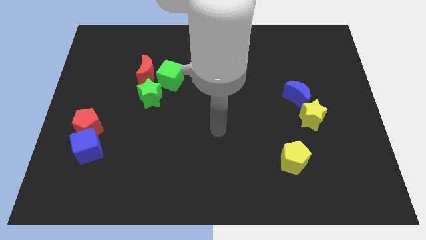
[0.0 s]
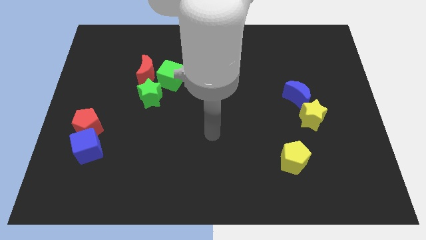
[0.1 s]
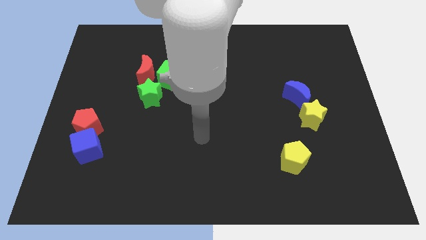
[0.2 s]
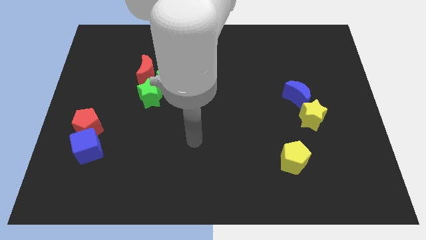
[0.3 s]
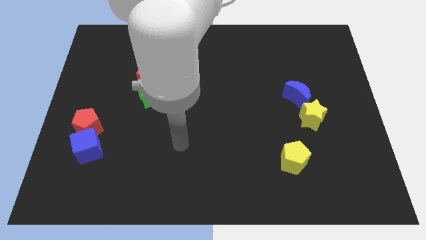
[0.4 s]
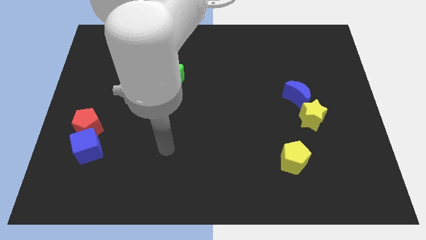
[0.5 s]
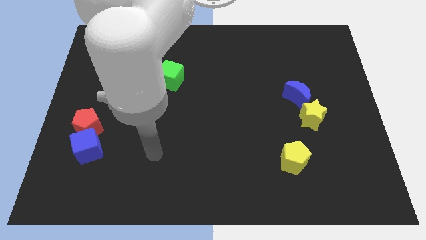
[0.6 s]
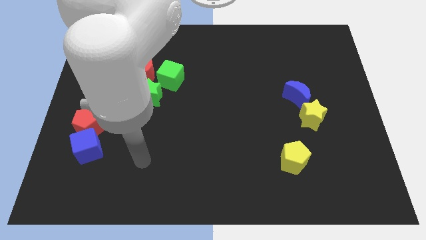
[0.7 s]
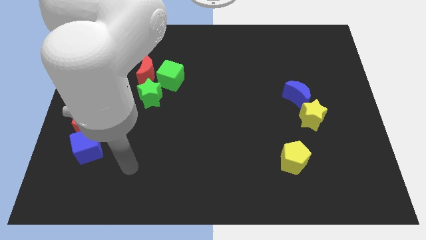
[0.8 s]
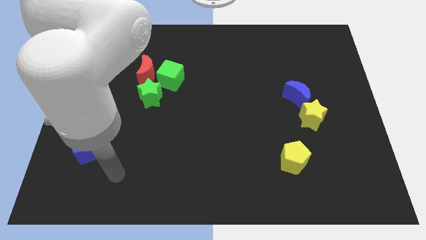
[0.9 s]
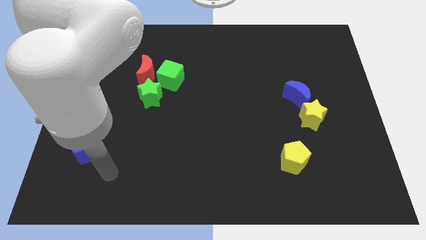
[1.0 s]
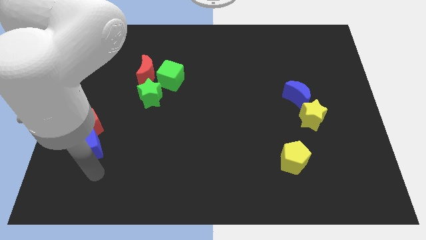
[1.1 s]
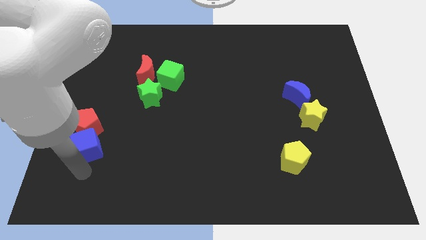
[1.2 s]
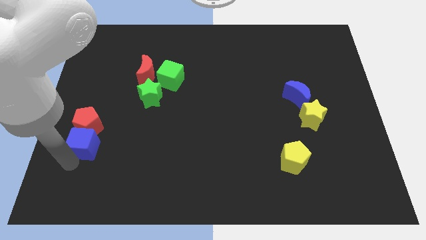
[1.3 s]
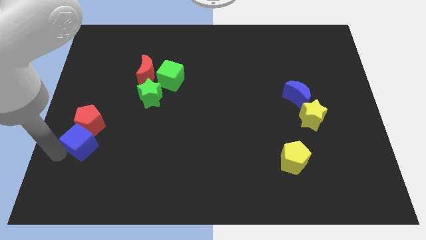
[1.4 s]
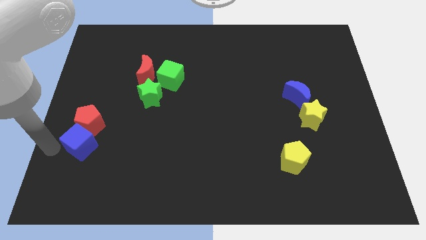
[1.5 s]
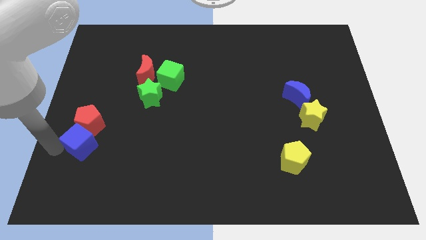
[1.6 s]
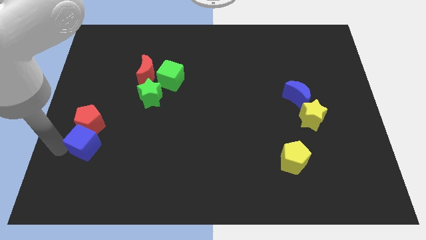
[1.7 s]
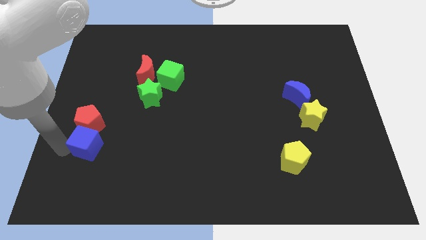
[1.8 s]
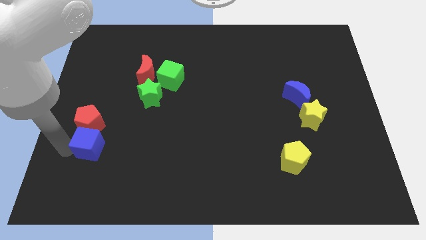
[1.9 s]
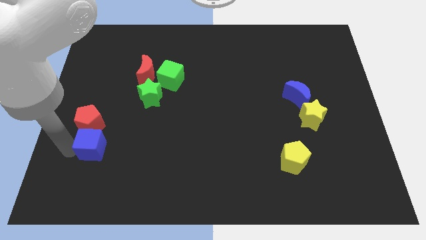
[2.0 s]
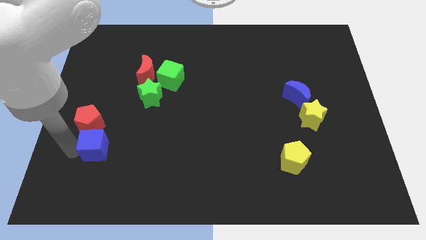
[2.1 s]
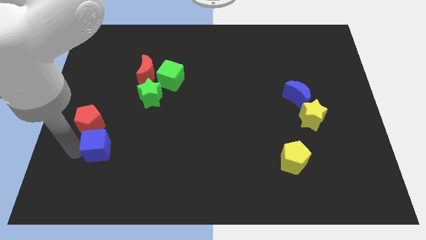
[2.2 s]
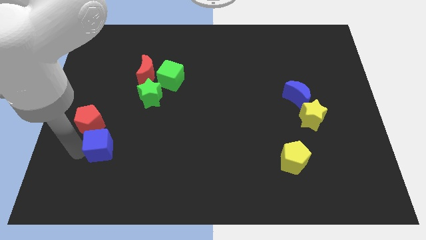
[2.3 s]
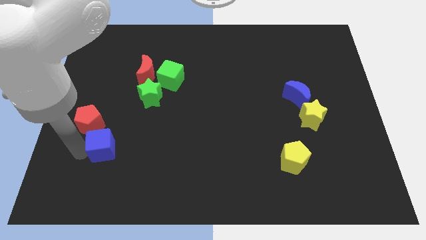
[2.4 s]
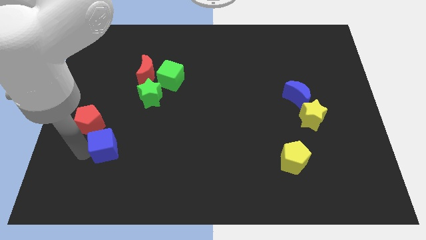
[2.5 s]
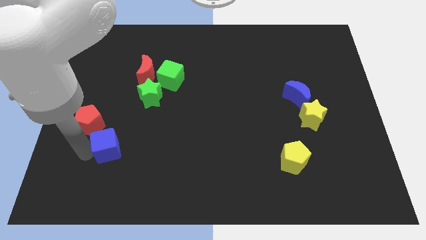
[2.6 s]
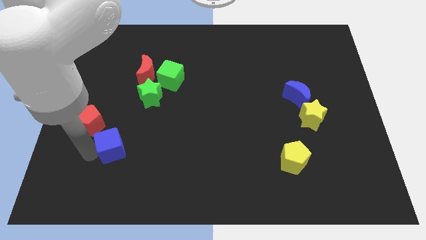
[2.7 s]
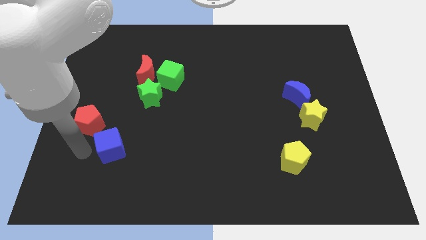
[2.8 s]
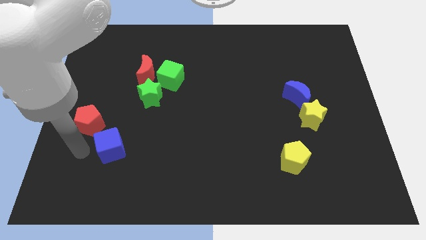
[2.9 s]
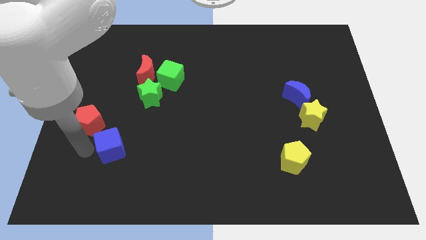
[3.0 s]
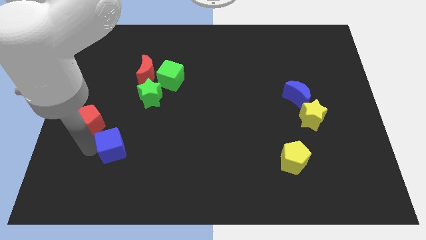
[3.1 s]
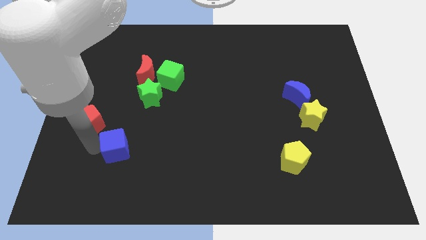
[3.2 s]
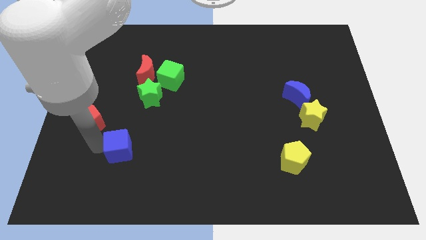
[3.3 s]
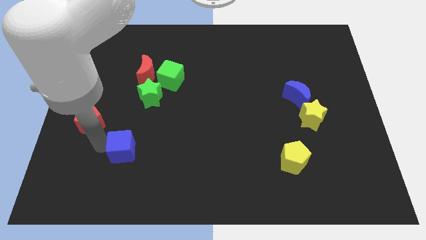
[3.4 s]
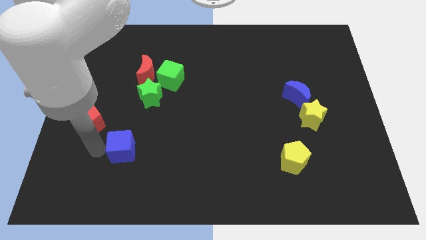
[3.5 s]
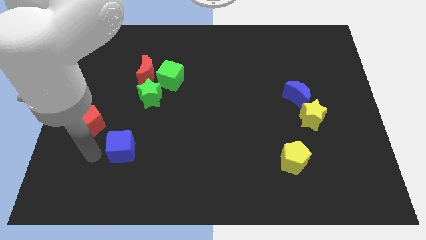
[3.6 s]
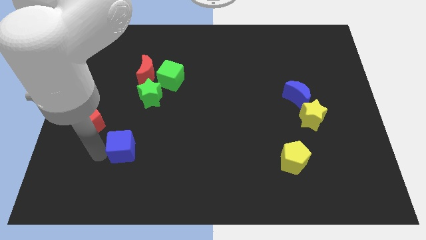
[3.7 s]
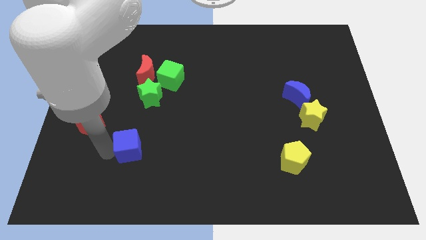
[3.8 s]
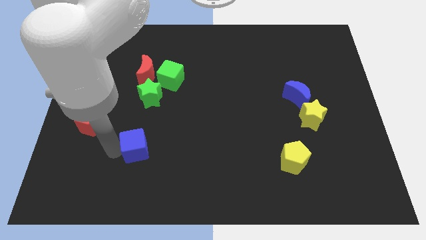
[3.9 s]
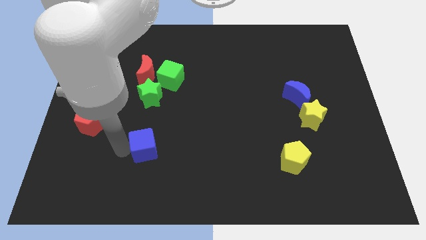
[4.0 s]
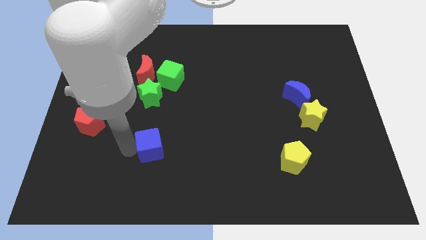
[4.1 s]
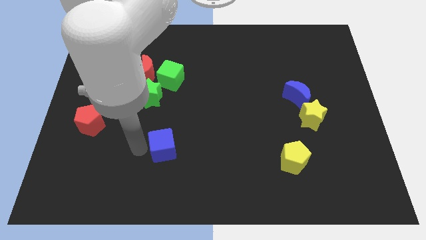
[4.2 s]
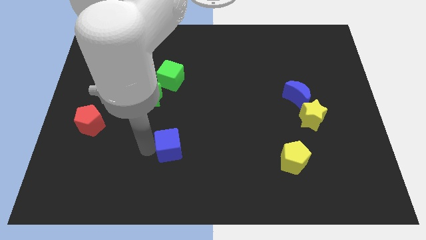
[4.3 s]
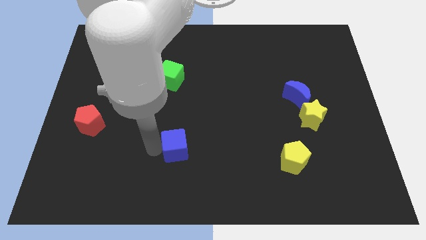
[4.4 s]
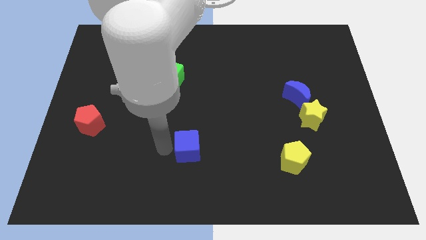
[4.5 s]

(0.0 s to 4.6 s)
move the blue cube right

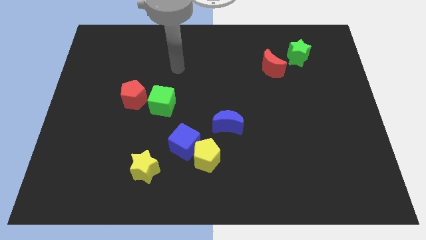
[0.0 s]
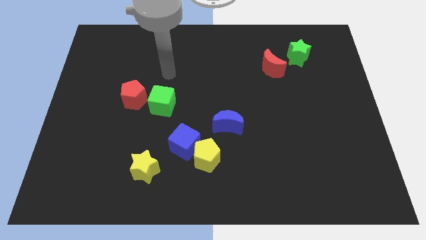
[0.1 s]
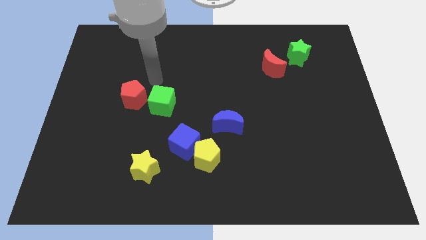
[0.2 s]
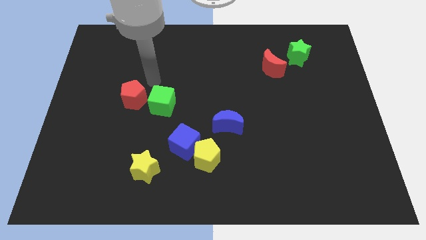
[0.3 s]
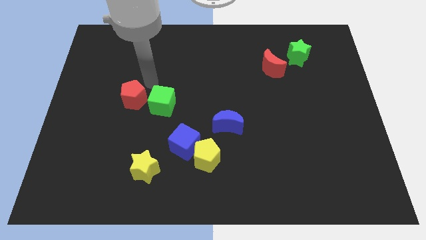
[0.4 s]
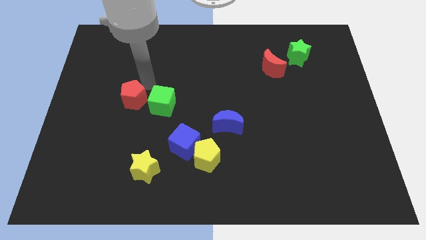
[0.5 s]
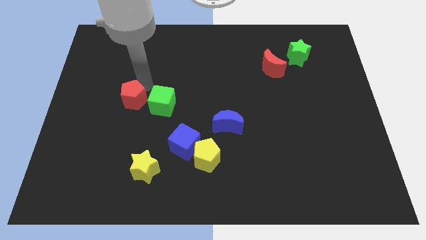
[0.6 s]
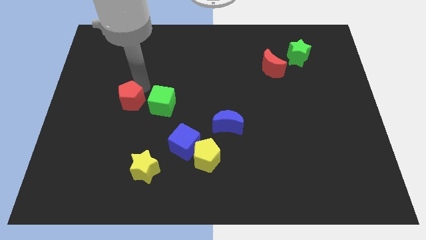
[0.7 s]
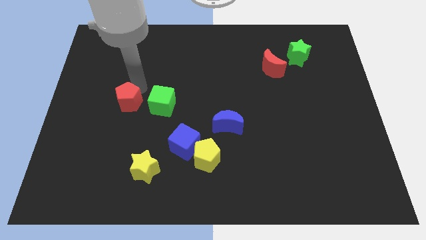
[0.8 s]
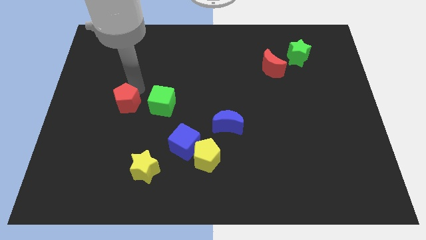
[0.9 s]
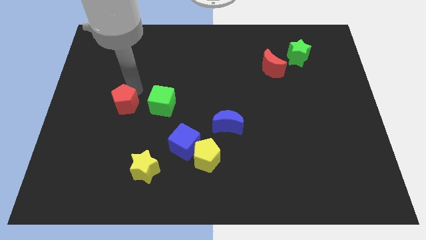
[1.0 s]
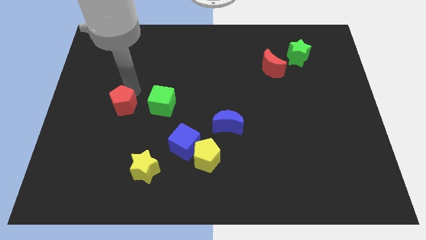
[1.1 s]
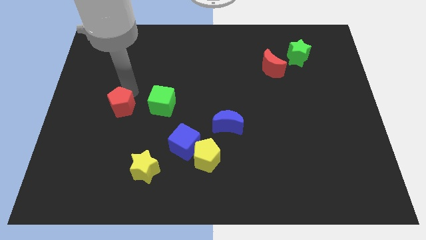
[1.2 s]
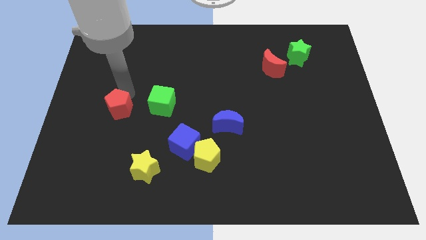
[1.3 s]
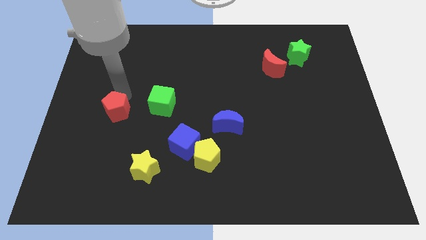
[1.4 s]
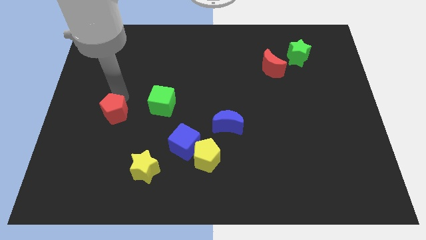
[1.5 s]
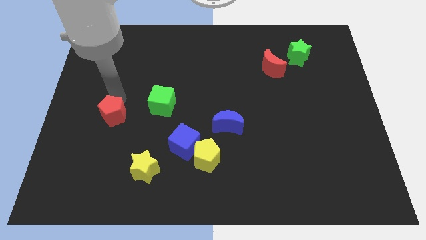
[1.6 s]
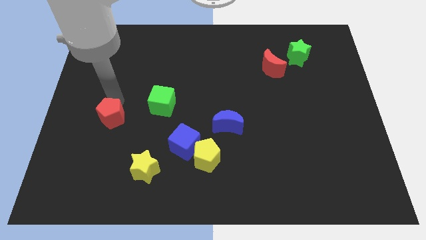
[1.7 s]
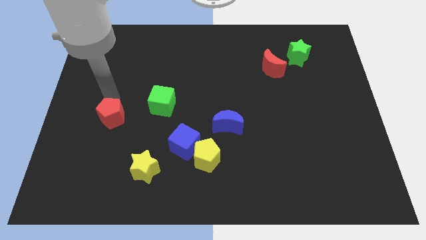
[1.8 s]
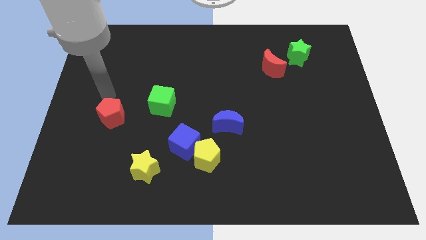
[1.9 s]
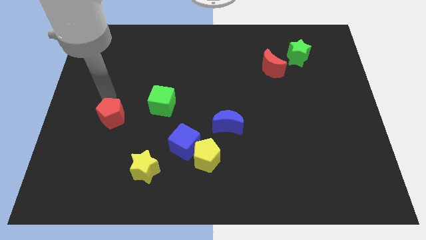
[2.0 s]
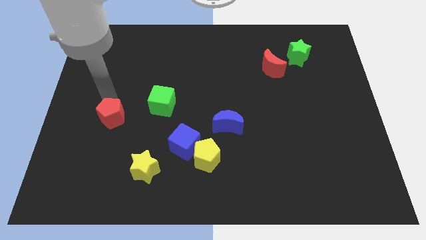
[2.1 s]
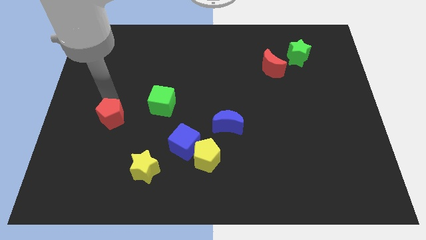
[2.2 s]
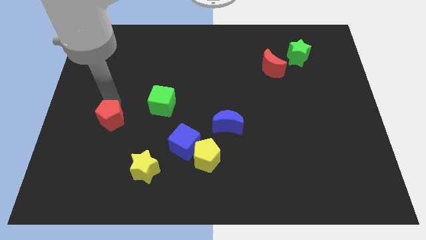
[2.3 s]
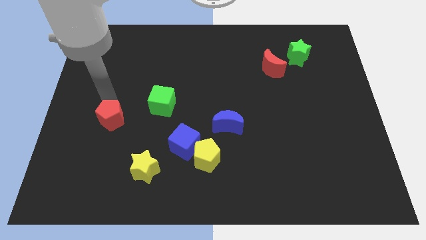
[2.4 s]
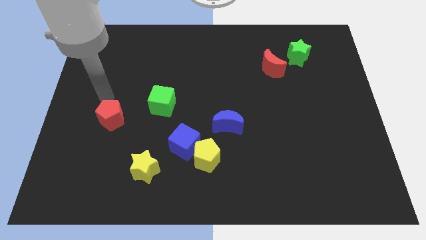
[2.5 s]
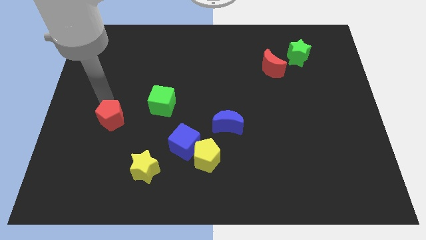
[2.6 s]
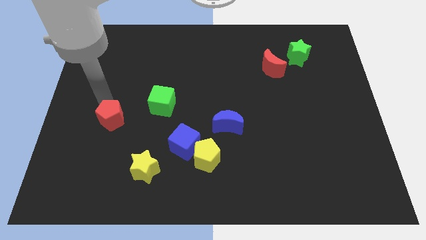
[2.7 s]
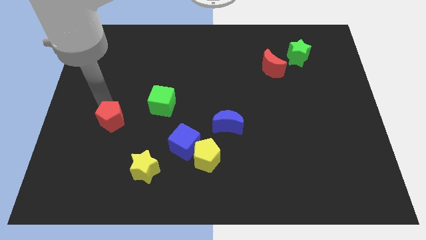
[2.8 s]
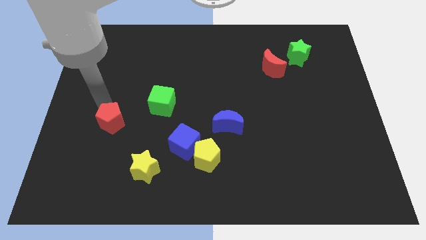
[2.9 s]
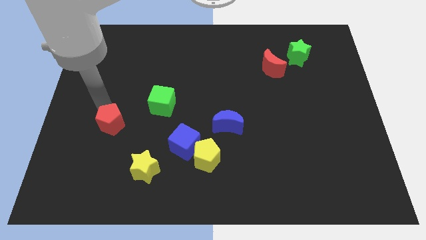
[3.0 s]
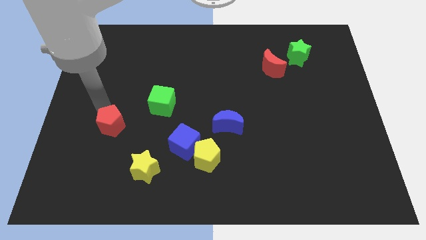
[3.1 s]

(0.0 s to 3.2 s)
push the red pentagon down a bit
